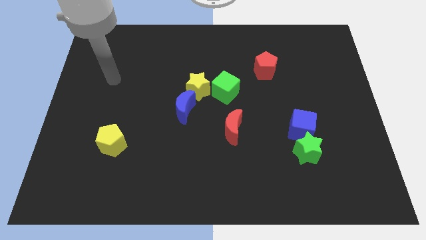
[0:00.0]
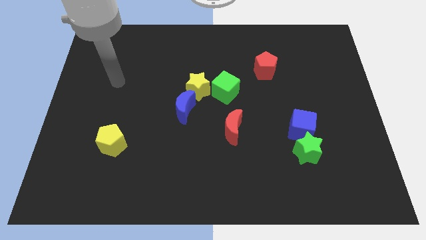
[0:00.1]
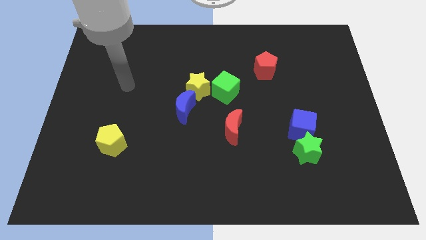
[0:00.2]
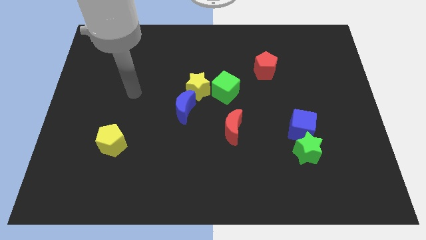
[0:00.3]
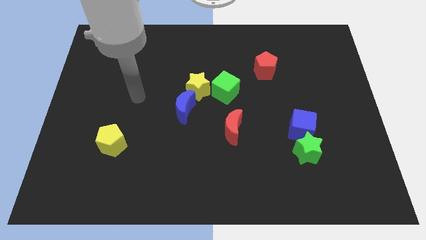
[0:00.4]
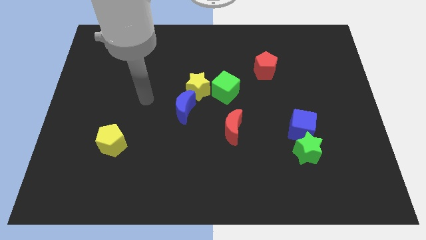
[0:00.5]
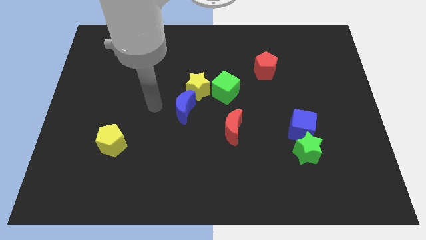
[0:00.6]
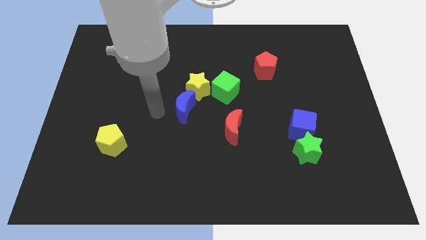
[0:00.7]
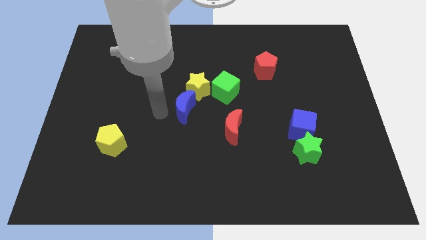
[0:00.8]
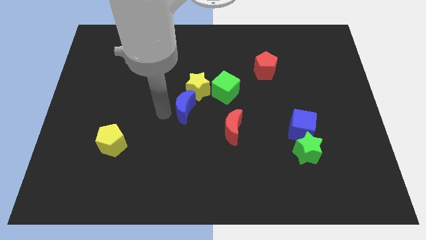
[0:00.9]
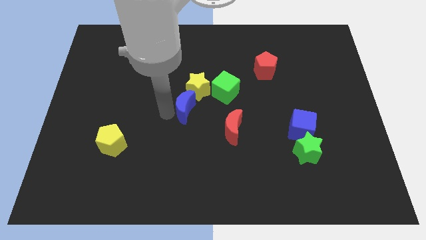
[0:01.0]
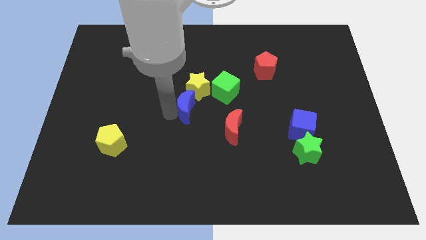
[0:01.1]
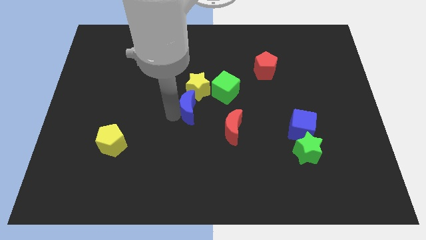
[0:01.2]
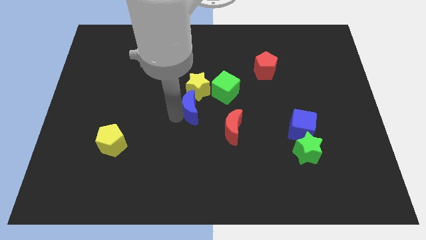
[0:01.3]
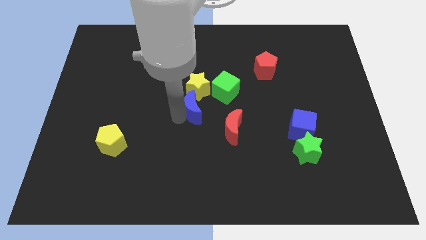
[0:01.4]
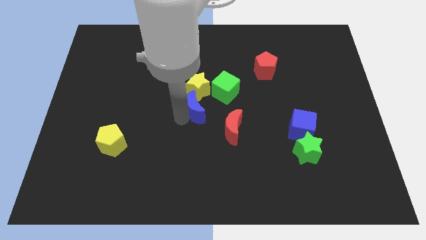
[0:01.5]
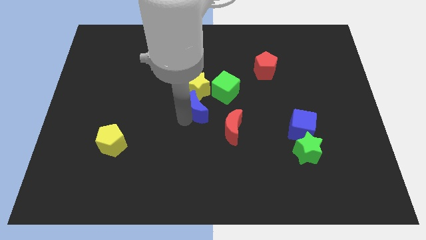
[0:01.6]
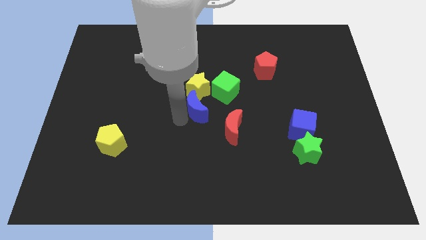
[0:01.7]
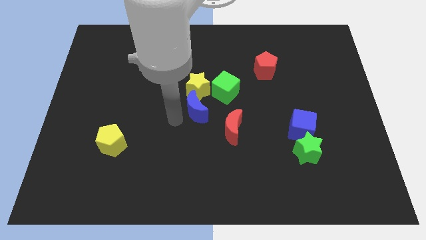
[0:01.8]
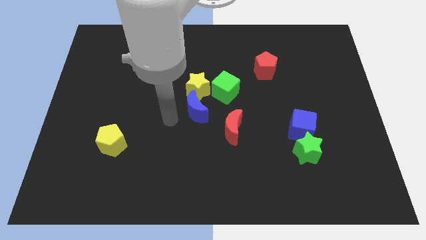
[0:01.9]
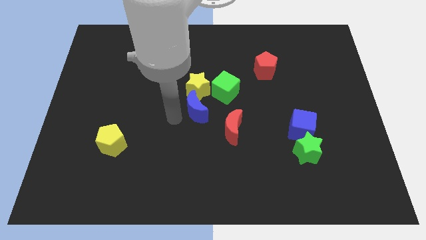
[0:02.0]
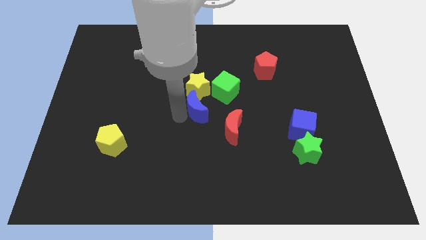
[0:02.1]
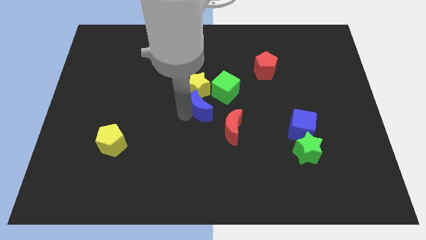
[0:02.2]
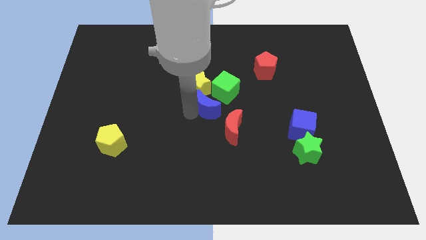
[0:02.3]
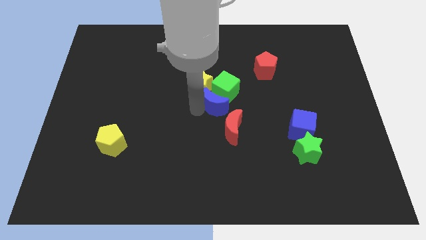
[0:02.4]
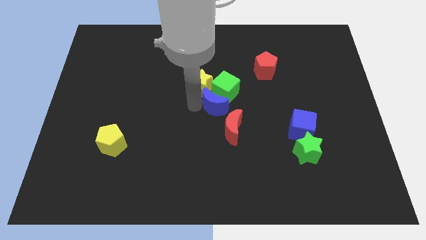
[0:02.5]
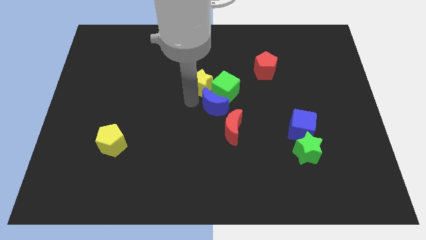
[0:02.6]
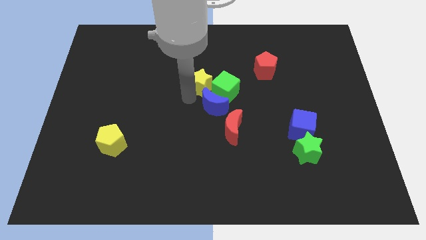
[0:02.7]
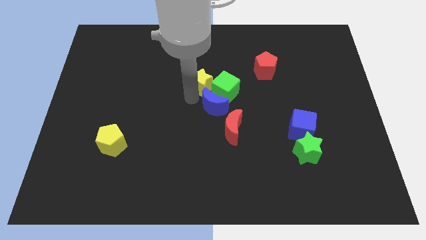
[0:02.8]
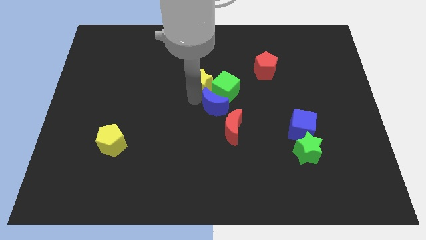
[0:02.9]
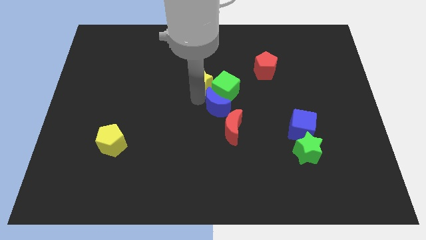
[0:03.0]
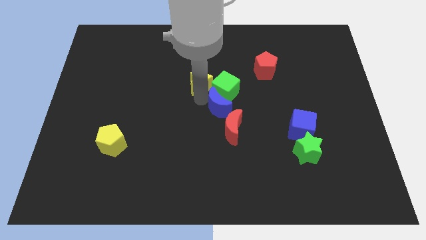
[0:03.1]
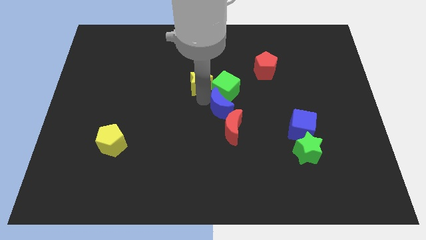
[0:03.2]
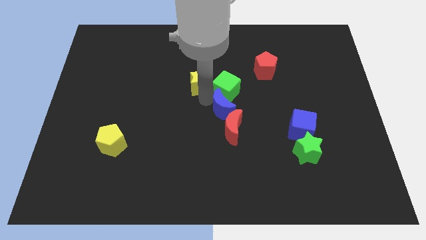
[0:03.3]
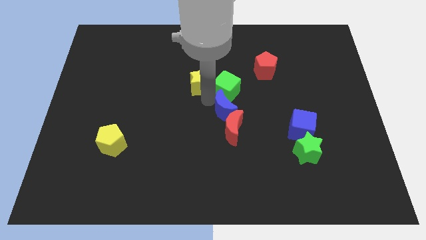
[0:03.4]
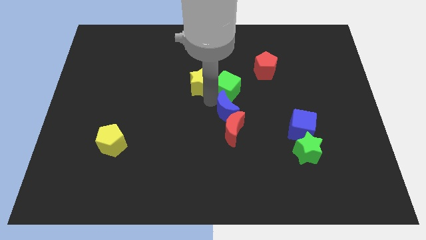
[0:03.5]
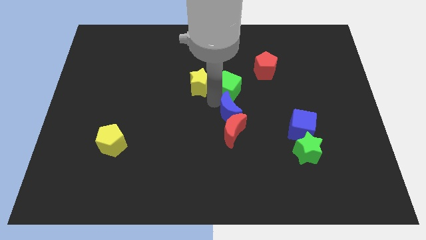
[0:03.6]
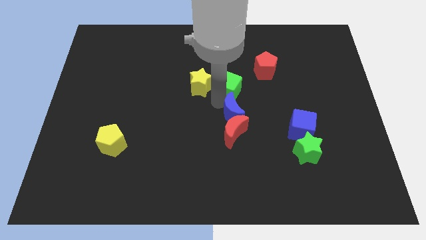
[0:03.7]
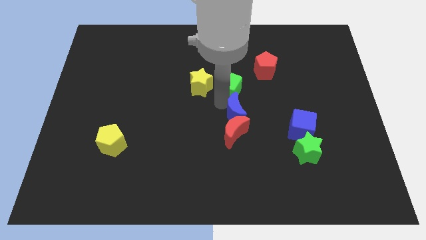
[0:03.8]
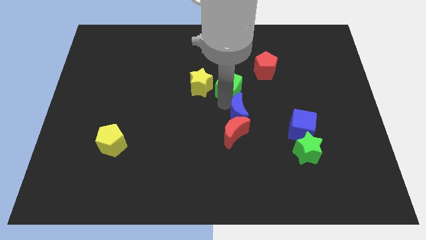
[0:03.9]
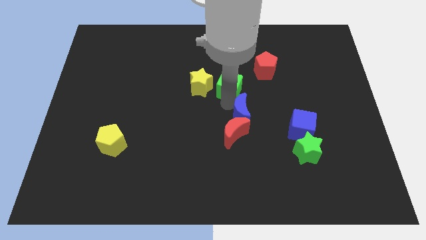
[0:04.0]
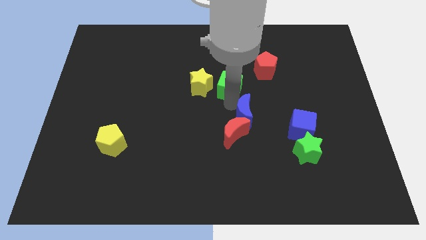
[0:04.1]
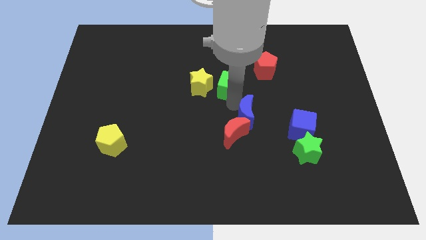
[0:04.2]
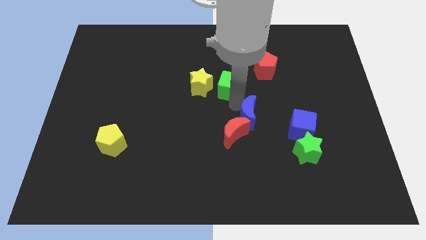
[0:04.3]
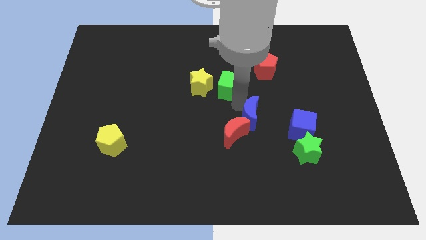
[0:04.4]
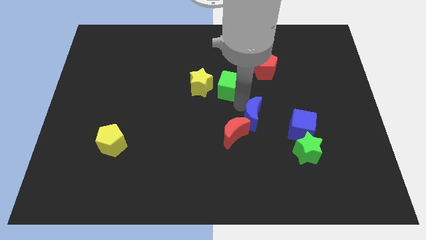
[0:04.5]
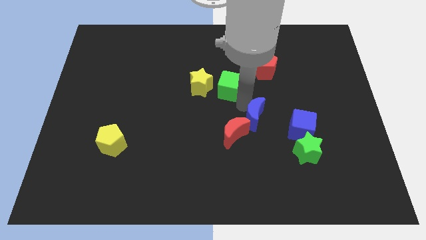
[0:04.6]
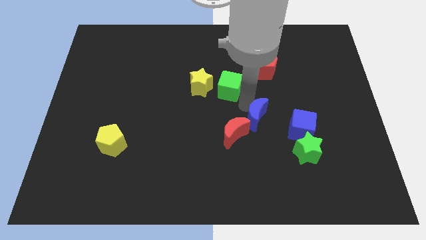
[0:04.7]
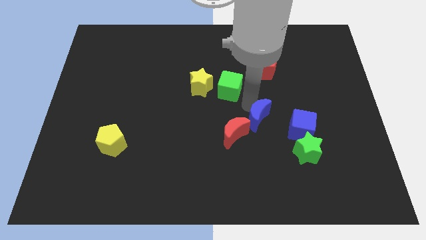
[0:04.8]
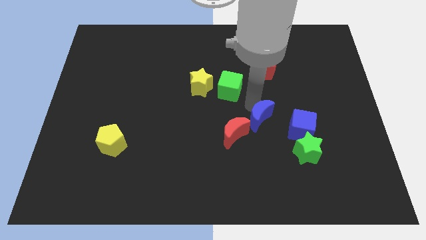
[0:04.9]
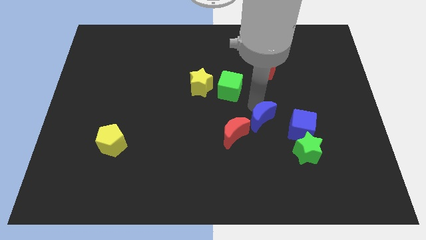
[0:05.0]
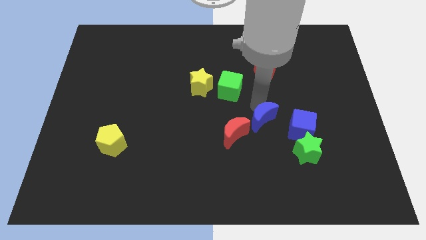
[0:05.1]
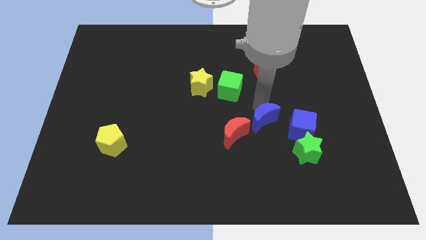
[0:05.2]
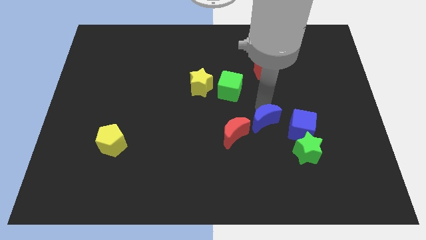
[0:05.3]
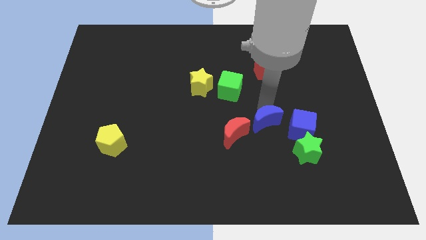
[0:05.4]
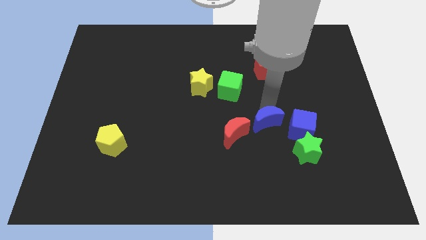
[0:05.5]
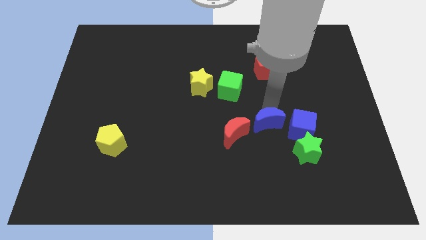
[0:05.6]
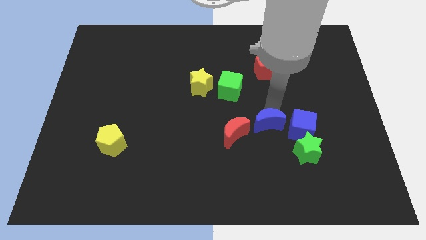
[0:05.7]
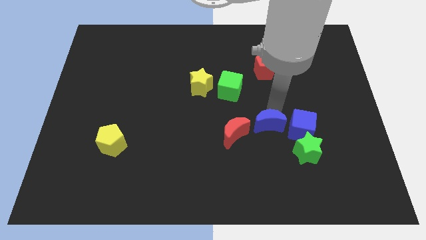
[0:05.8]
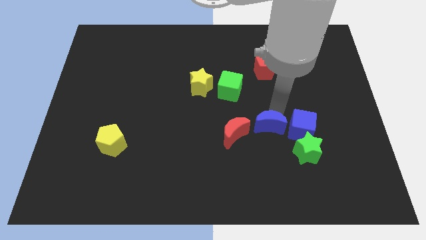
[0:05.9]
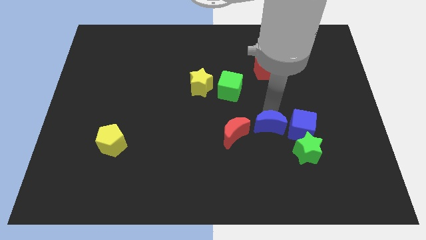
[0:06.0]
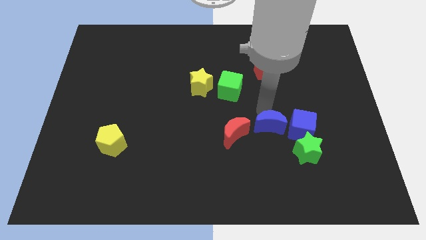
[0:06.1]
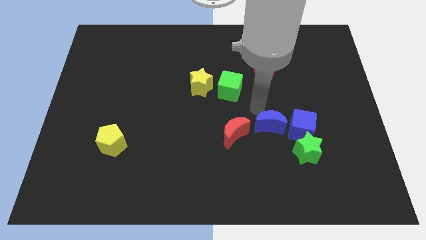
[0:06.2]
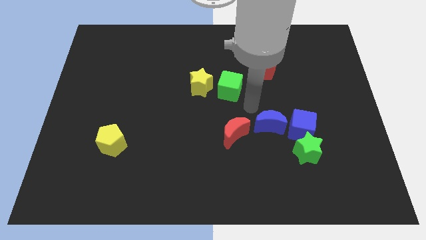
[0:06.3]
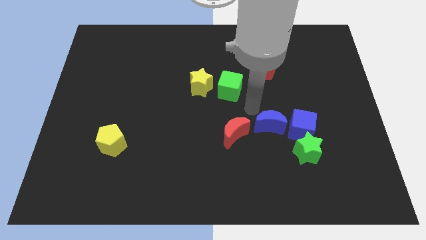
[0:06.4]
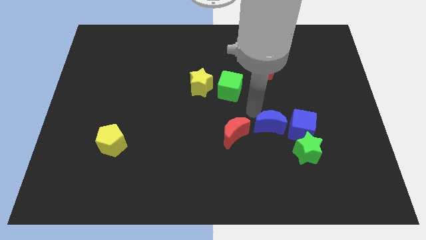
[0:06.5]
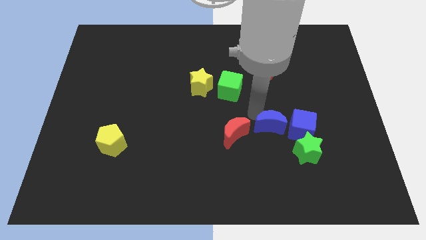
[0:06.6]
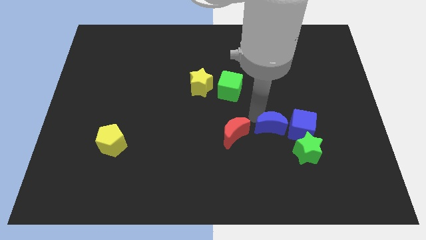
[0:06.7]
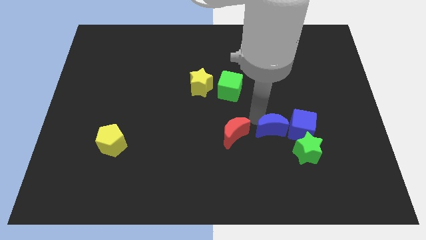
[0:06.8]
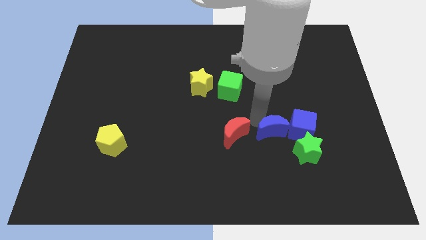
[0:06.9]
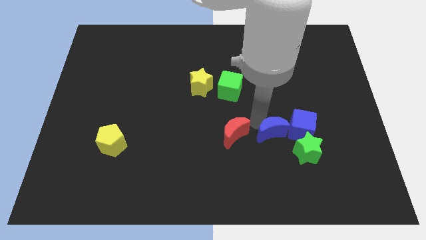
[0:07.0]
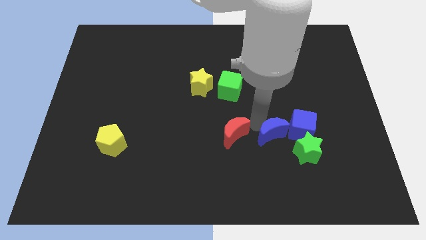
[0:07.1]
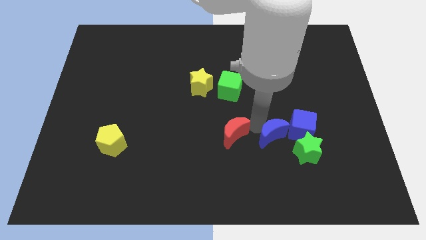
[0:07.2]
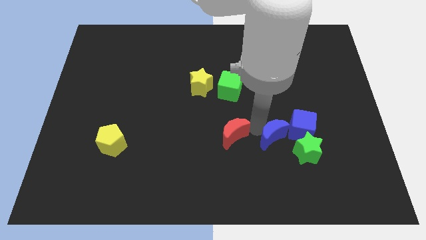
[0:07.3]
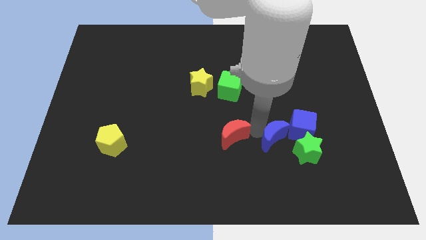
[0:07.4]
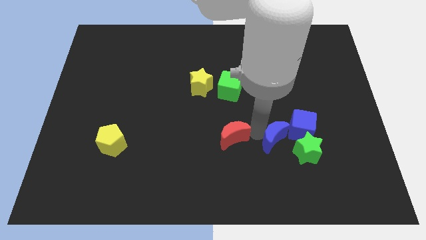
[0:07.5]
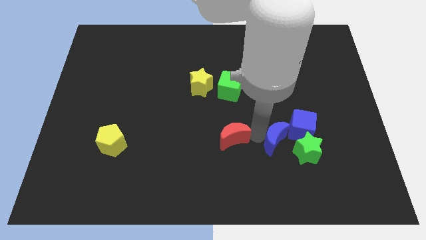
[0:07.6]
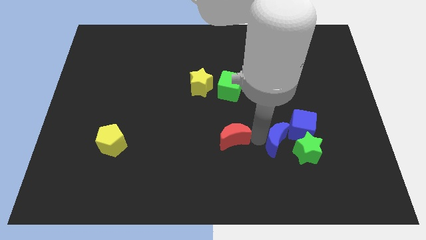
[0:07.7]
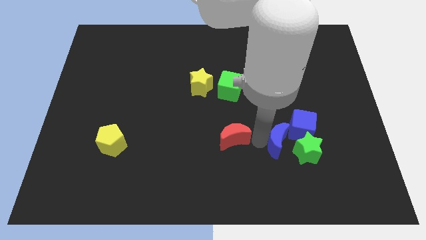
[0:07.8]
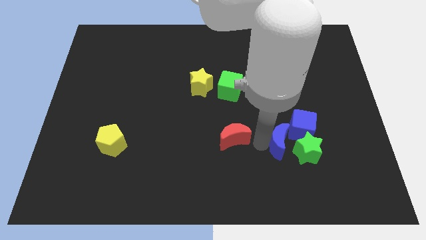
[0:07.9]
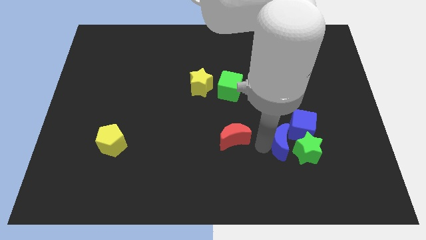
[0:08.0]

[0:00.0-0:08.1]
push the blue moon close to the green star
